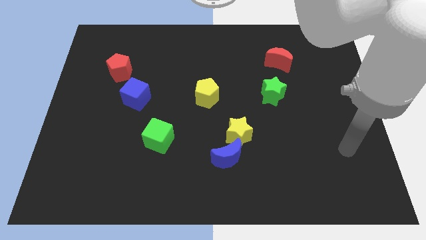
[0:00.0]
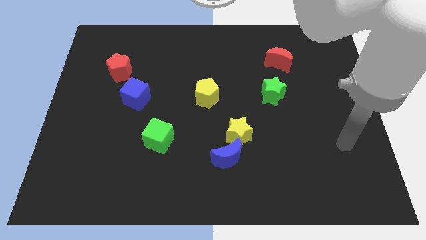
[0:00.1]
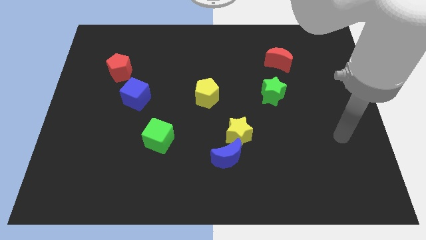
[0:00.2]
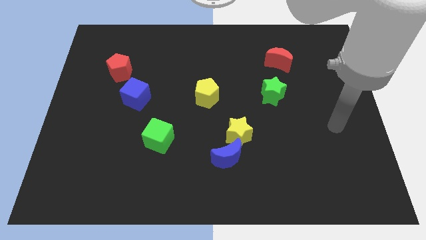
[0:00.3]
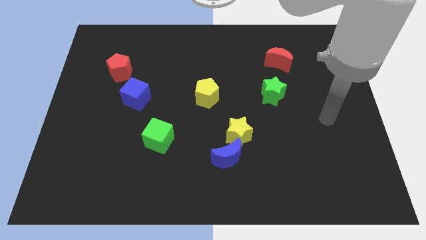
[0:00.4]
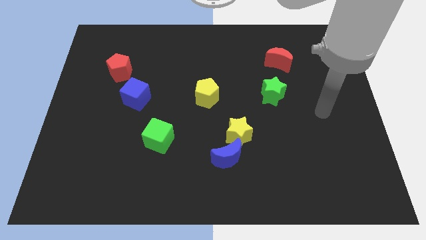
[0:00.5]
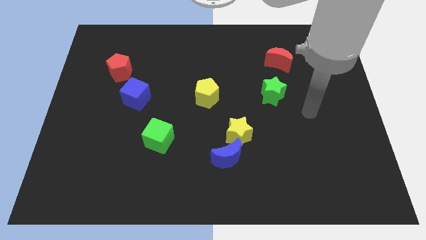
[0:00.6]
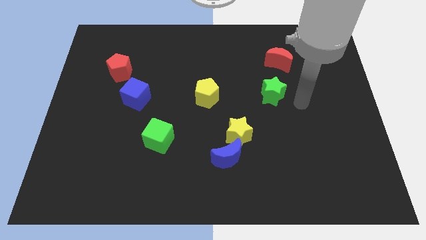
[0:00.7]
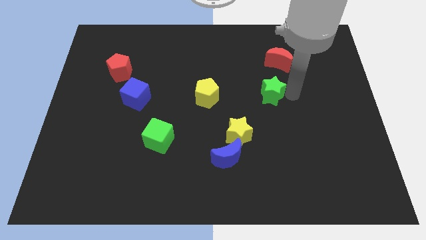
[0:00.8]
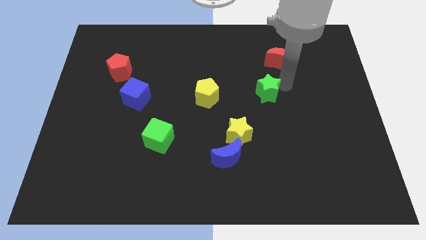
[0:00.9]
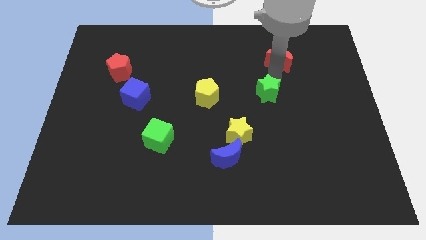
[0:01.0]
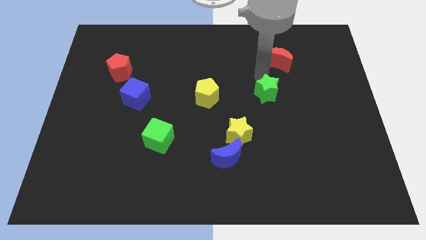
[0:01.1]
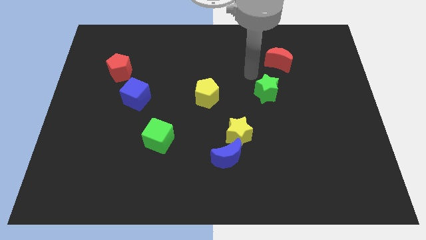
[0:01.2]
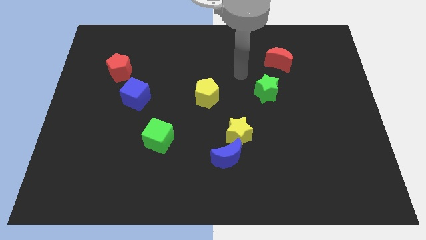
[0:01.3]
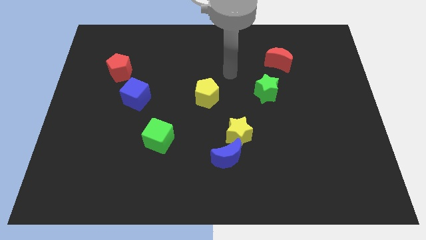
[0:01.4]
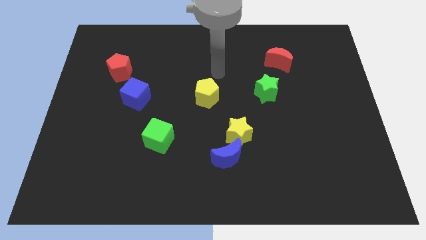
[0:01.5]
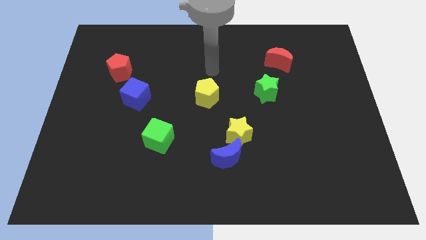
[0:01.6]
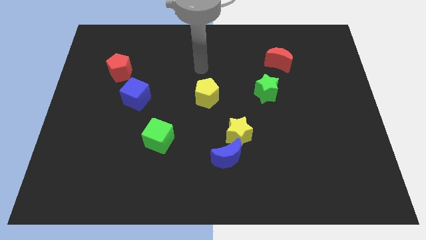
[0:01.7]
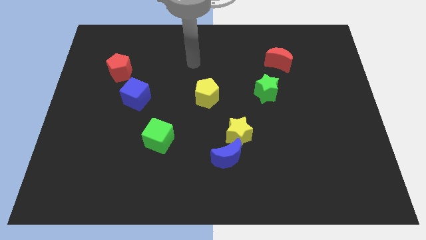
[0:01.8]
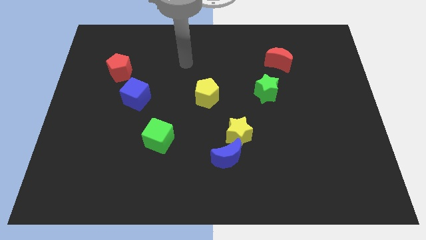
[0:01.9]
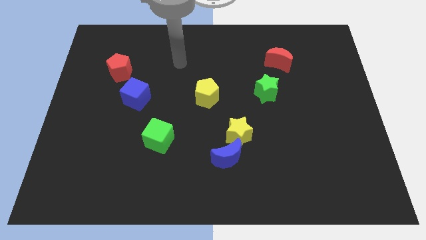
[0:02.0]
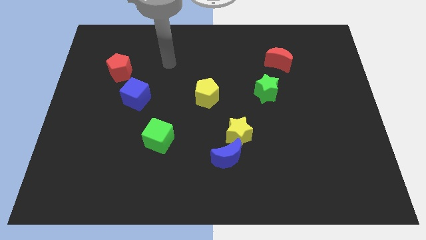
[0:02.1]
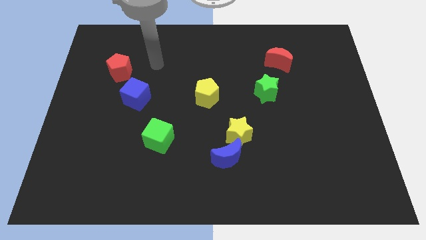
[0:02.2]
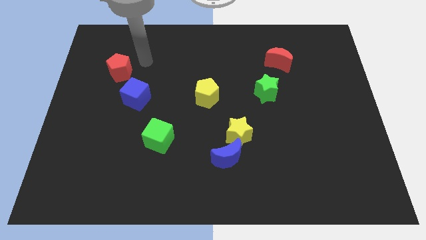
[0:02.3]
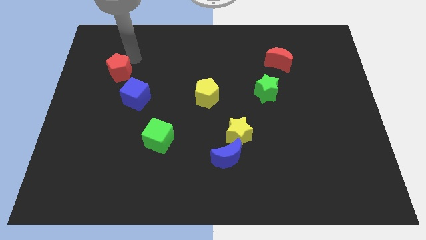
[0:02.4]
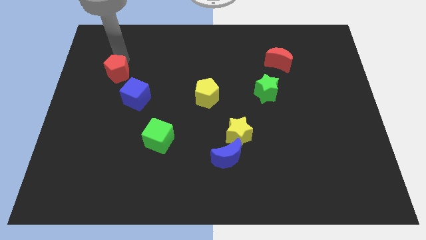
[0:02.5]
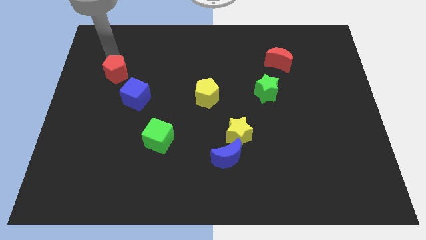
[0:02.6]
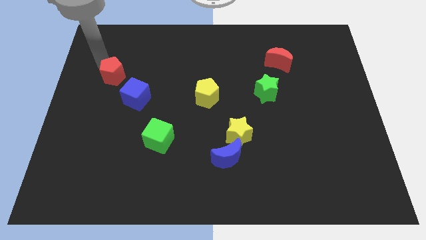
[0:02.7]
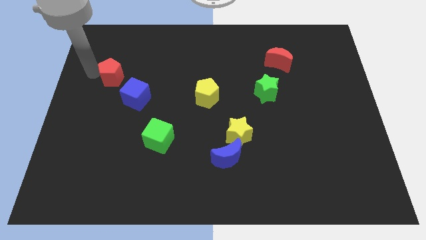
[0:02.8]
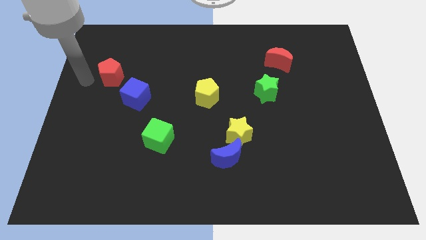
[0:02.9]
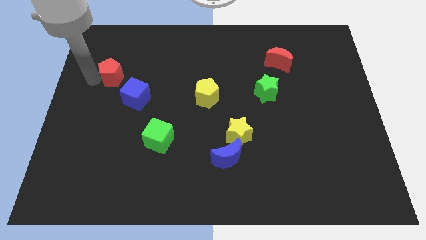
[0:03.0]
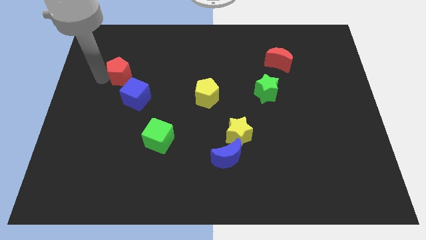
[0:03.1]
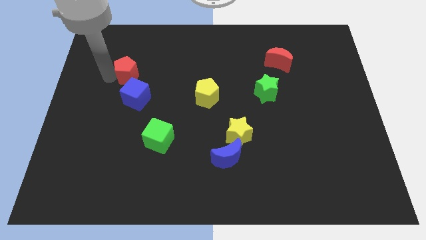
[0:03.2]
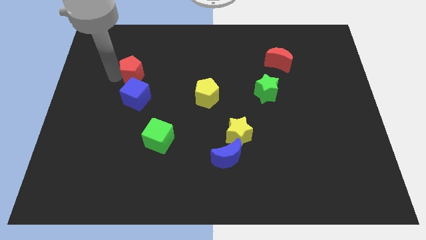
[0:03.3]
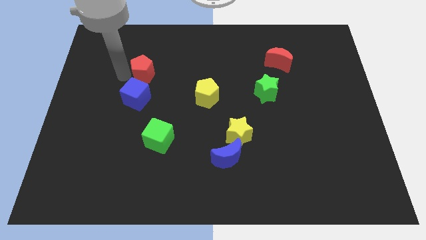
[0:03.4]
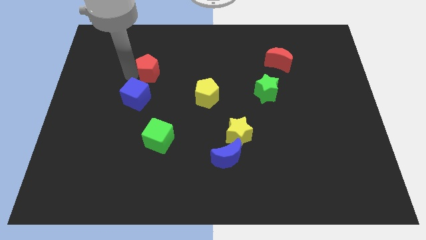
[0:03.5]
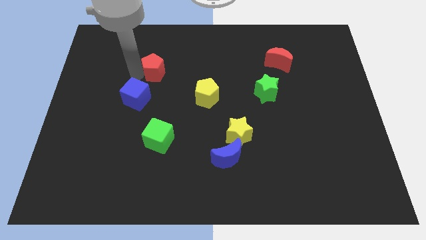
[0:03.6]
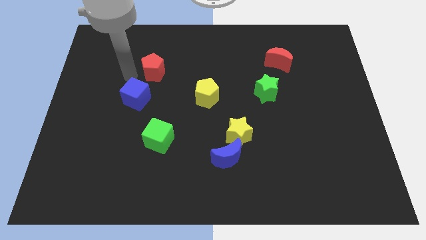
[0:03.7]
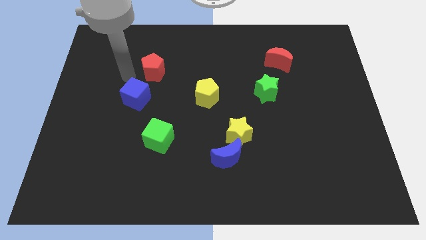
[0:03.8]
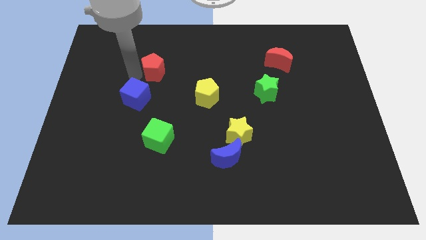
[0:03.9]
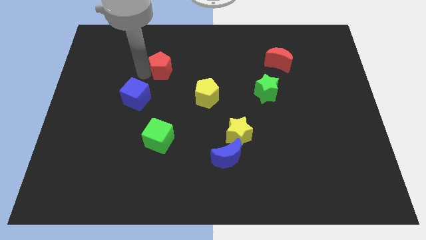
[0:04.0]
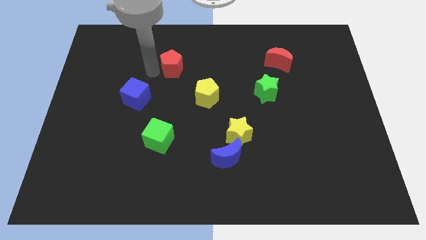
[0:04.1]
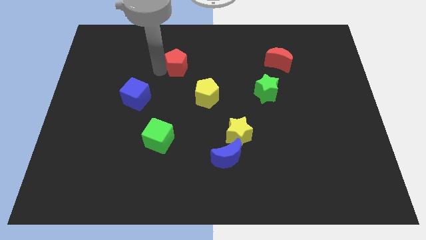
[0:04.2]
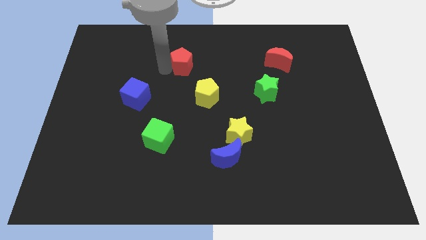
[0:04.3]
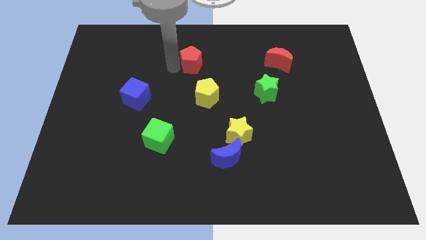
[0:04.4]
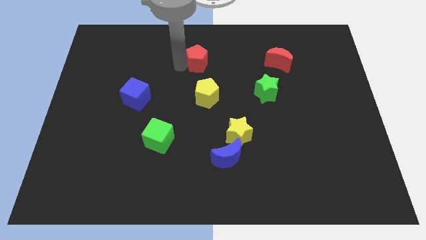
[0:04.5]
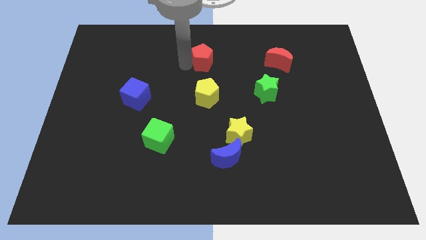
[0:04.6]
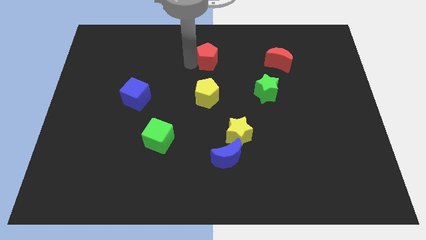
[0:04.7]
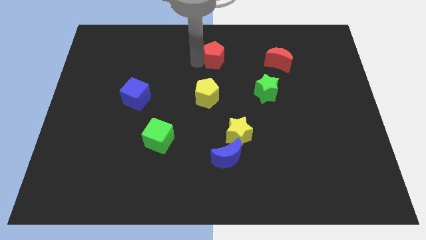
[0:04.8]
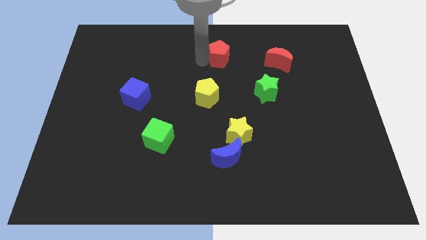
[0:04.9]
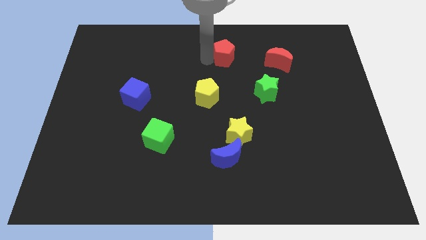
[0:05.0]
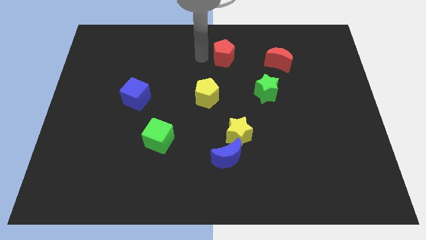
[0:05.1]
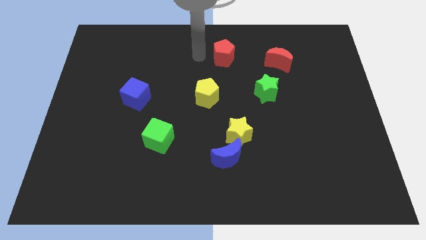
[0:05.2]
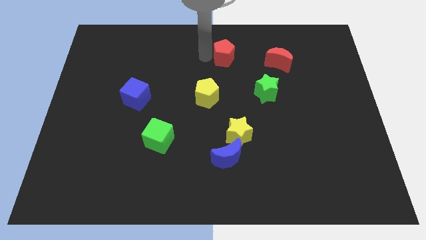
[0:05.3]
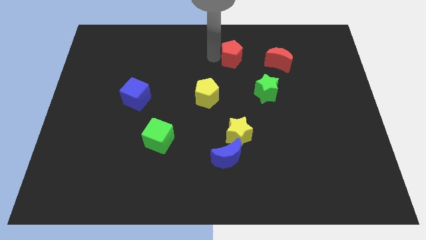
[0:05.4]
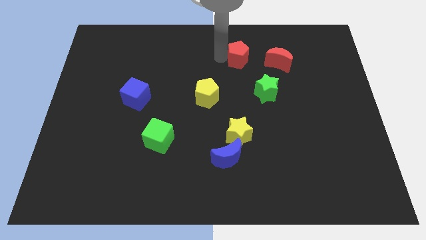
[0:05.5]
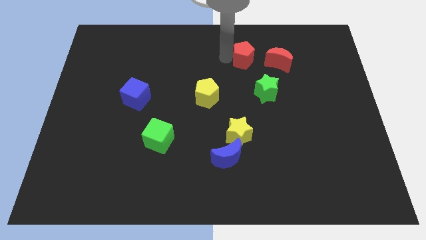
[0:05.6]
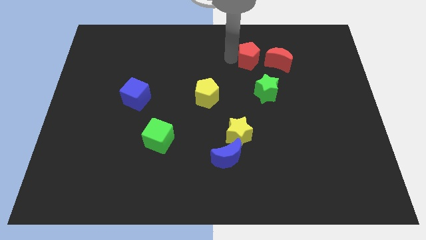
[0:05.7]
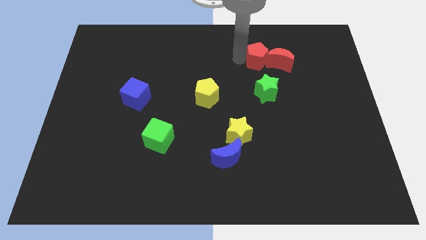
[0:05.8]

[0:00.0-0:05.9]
slide the red pentagon next to the red moon

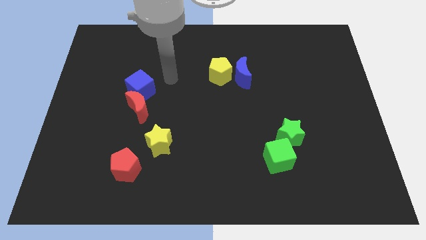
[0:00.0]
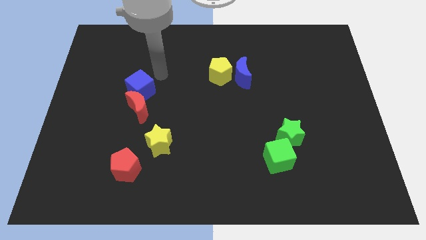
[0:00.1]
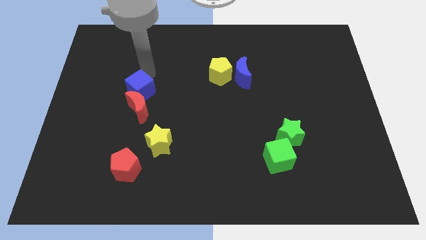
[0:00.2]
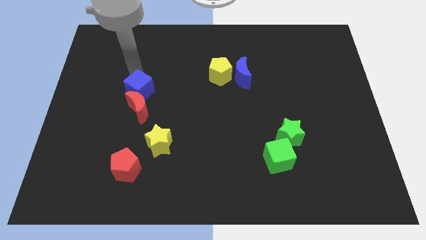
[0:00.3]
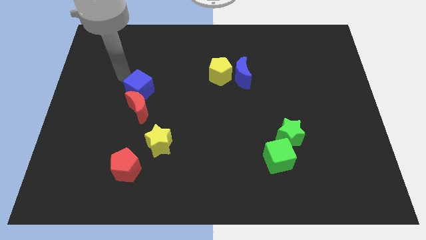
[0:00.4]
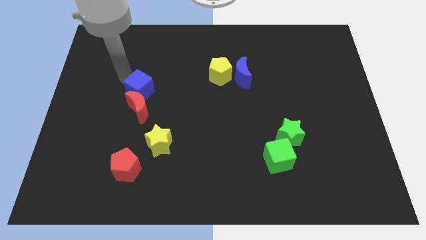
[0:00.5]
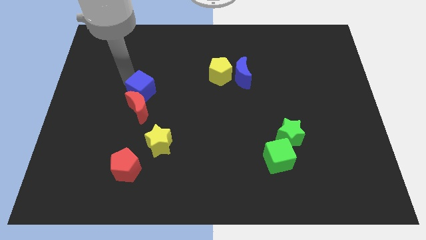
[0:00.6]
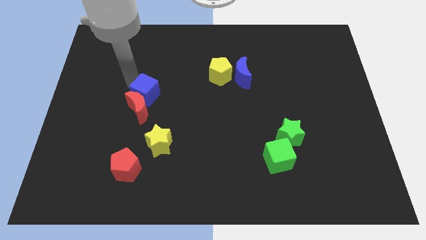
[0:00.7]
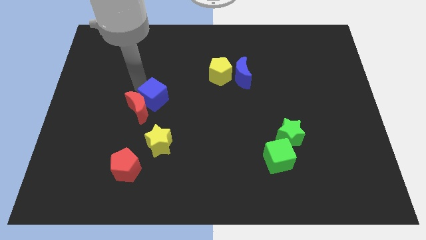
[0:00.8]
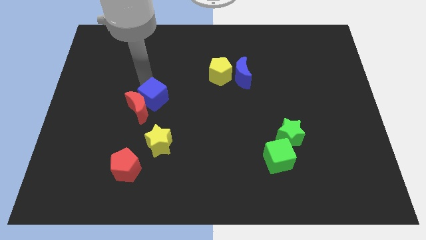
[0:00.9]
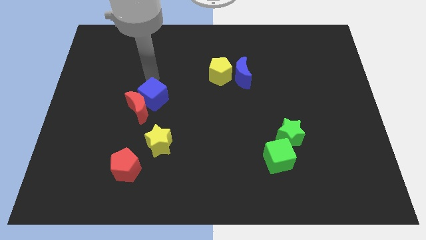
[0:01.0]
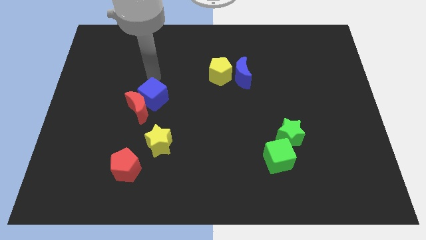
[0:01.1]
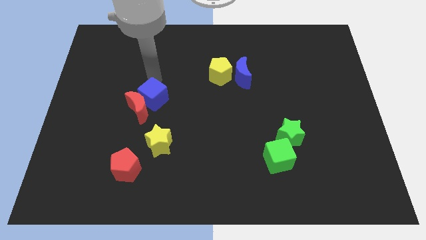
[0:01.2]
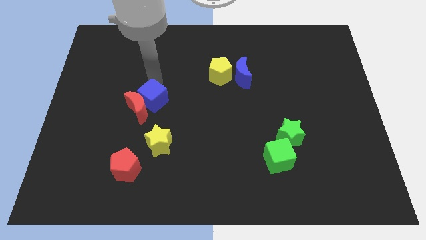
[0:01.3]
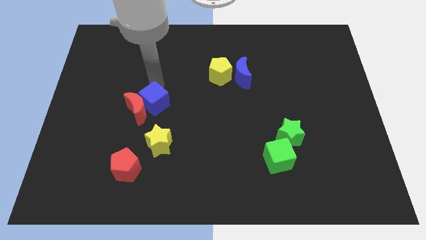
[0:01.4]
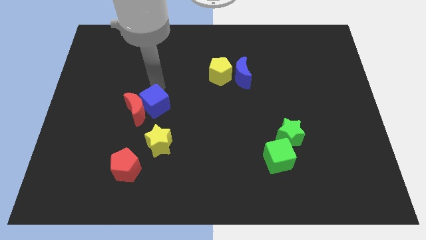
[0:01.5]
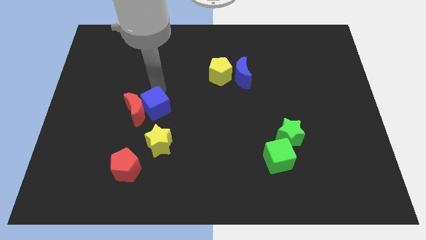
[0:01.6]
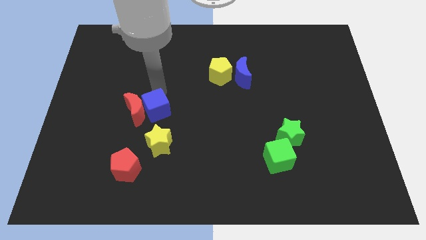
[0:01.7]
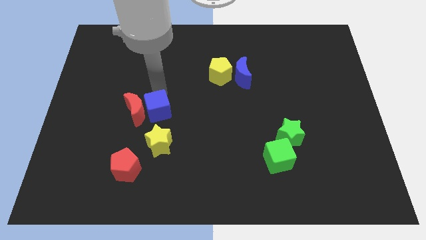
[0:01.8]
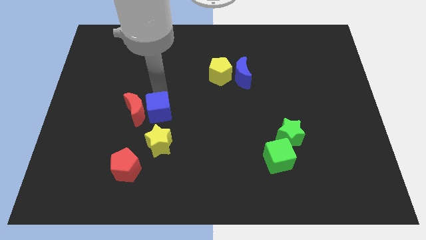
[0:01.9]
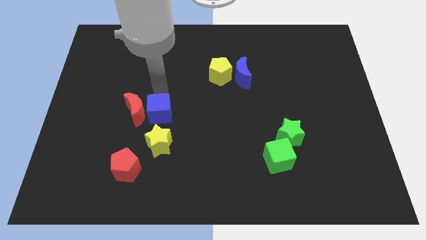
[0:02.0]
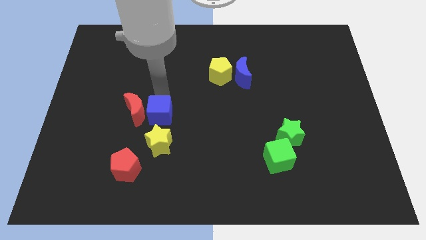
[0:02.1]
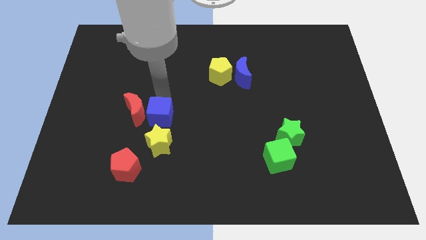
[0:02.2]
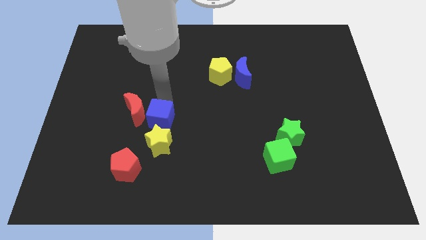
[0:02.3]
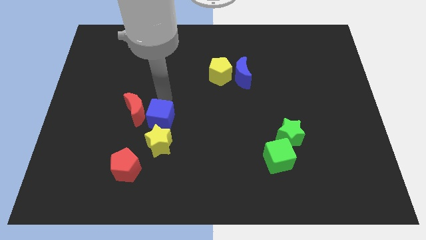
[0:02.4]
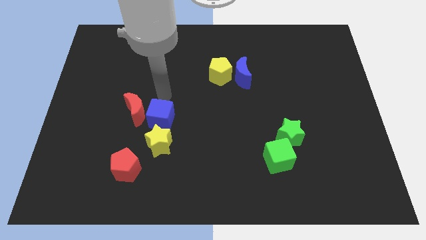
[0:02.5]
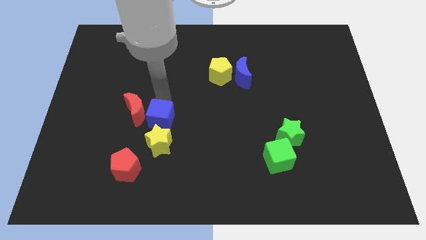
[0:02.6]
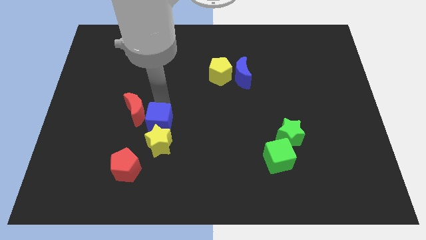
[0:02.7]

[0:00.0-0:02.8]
slide the blue cube towards the yellow star
